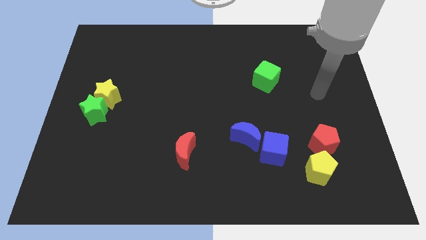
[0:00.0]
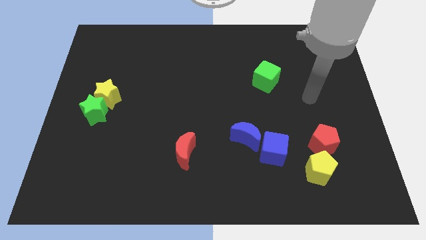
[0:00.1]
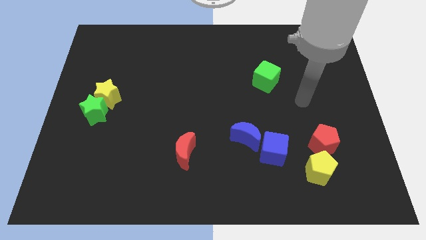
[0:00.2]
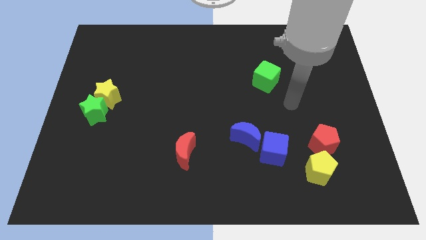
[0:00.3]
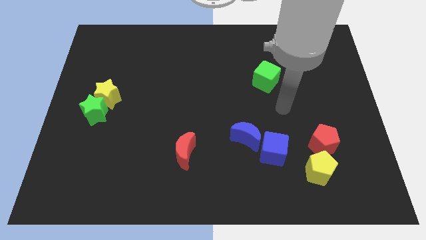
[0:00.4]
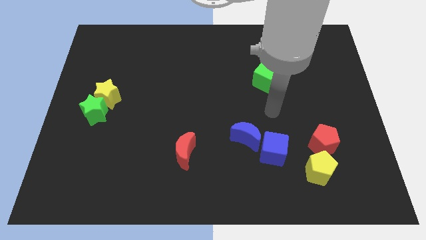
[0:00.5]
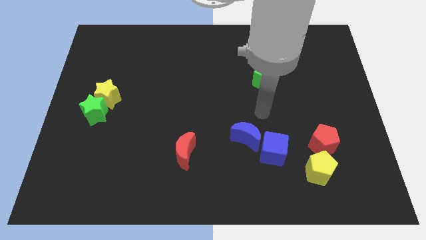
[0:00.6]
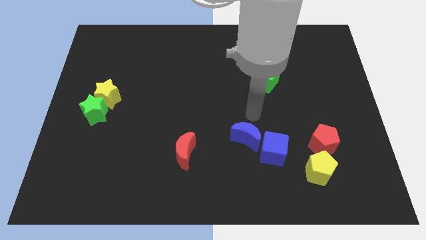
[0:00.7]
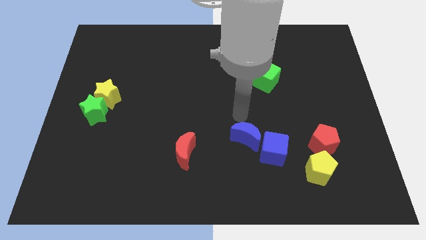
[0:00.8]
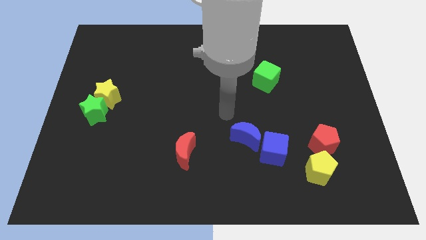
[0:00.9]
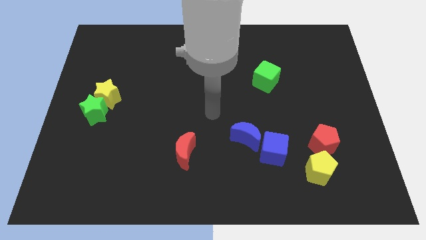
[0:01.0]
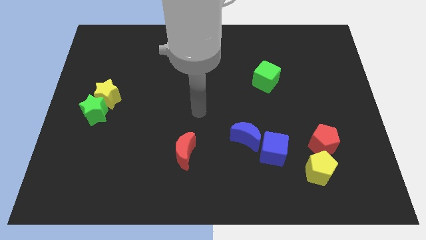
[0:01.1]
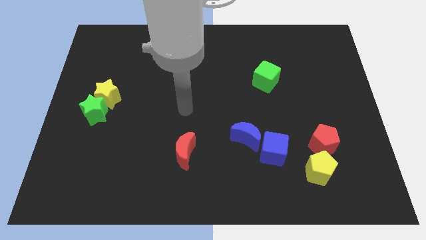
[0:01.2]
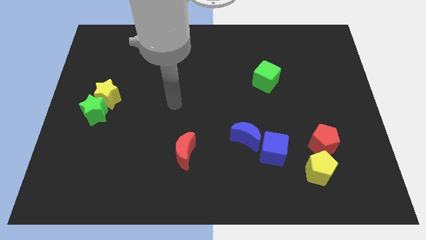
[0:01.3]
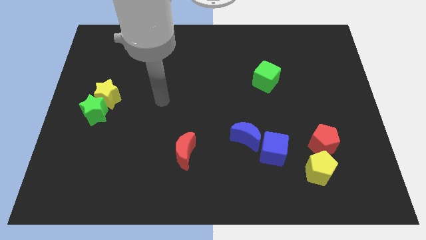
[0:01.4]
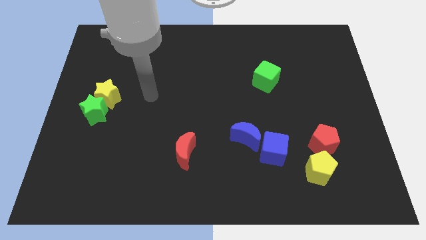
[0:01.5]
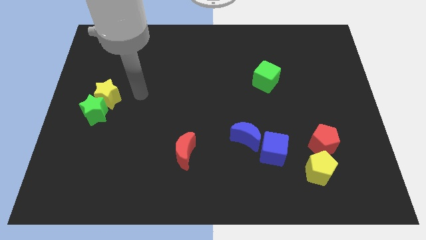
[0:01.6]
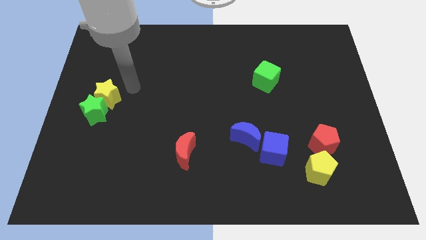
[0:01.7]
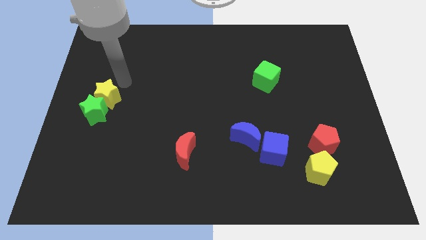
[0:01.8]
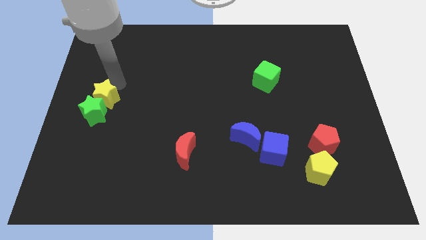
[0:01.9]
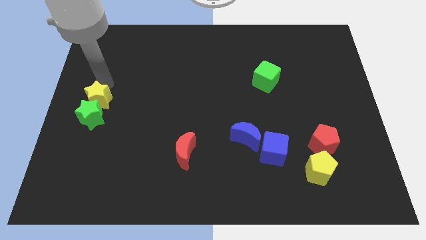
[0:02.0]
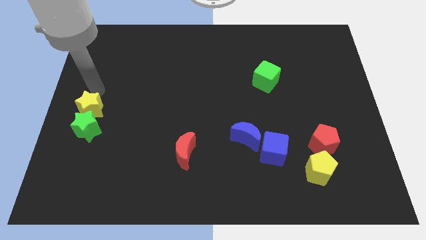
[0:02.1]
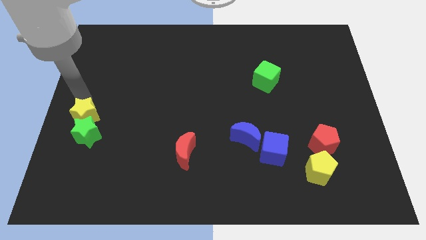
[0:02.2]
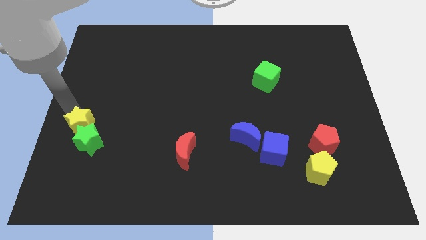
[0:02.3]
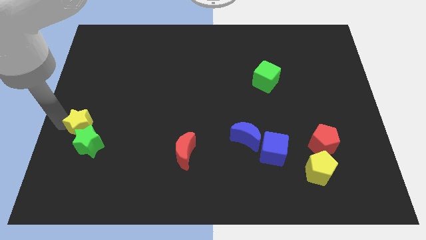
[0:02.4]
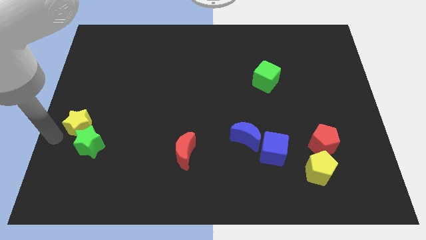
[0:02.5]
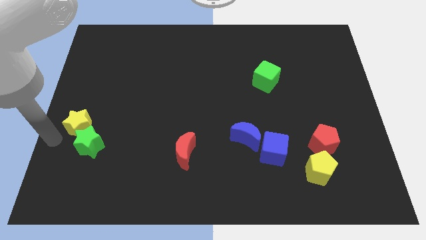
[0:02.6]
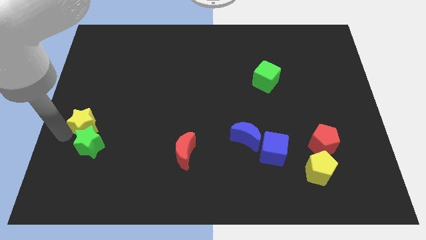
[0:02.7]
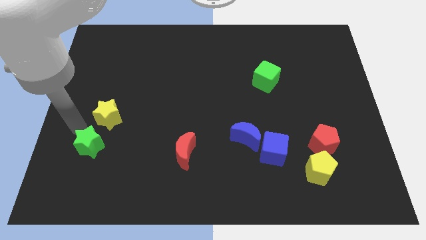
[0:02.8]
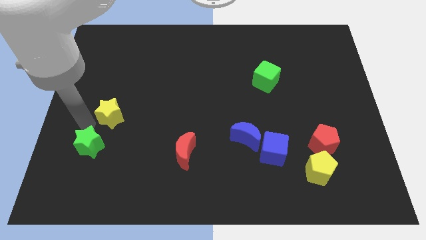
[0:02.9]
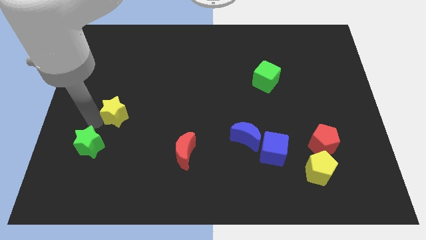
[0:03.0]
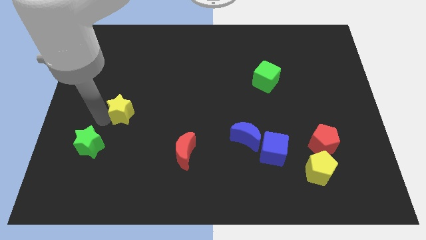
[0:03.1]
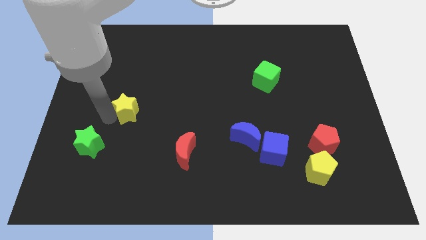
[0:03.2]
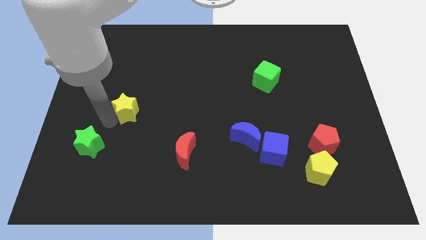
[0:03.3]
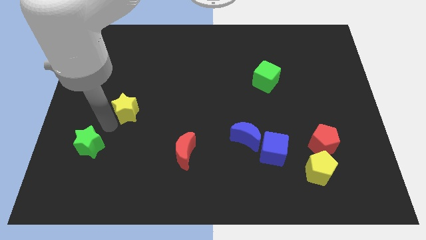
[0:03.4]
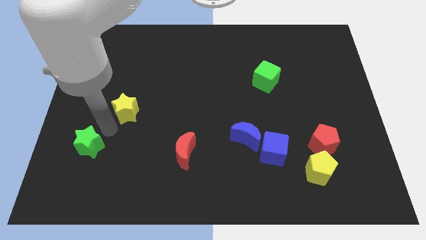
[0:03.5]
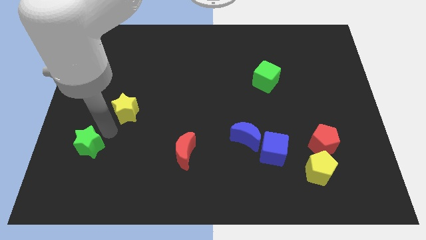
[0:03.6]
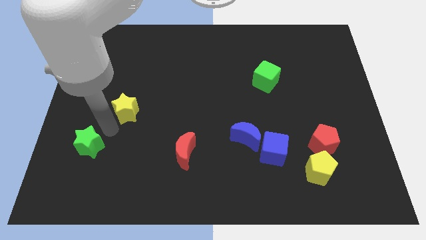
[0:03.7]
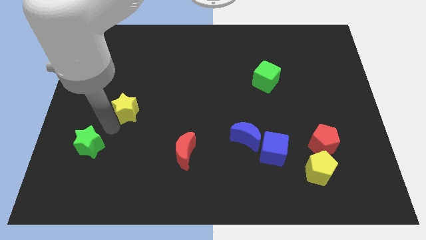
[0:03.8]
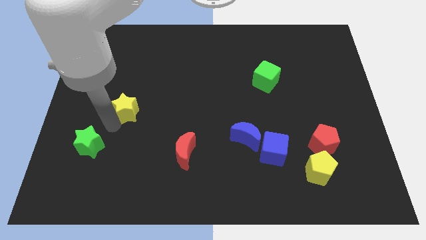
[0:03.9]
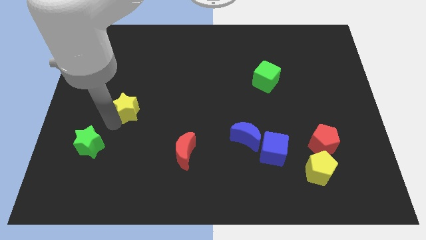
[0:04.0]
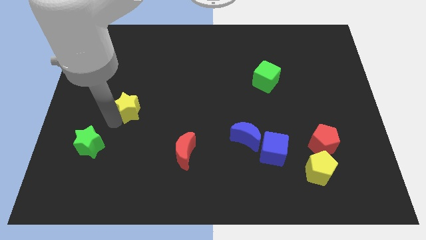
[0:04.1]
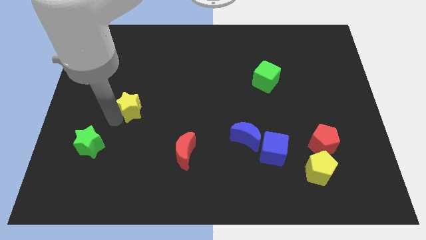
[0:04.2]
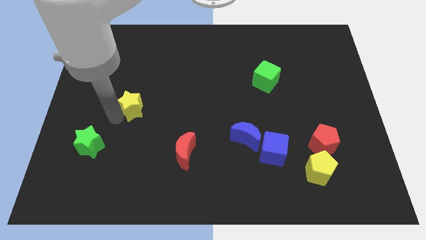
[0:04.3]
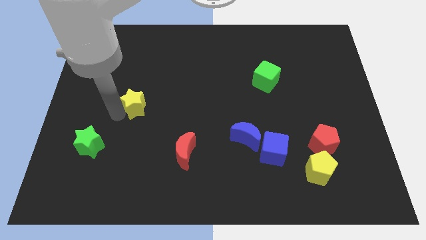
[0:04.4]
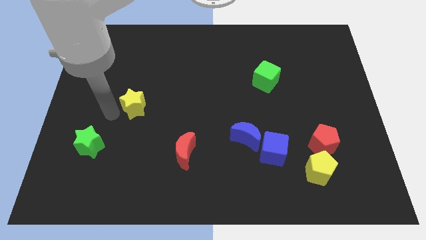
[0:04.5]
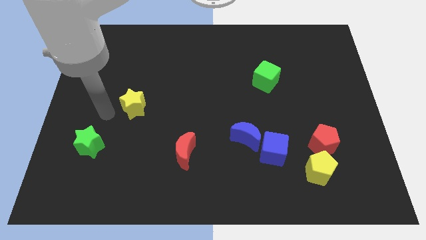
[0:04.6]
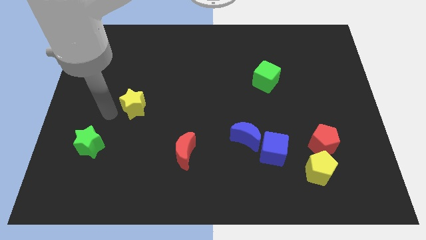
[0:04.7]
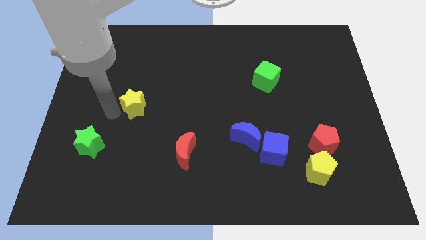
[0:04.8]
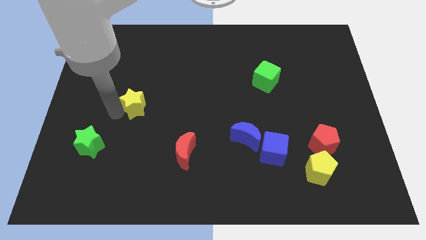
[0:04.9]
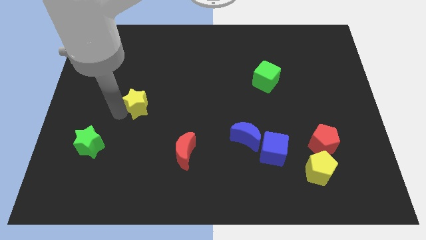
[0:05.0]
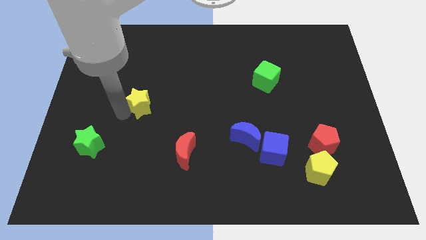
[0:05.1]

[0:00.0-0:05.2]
push the yellow star right slightly

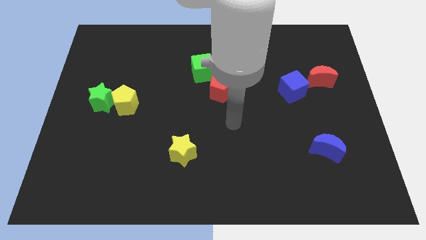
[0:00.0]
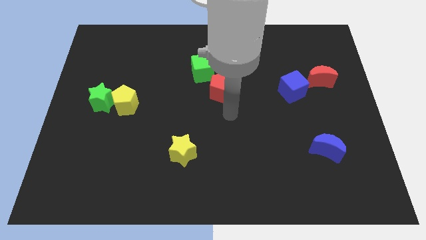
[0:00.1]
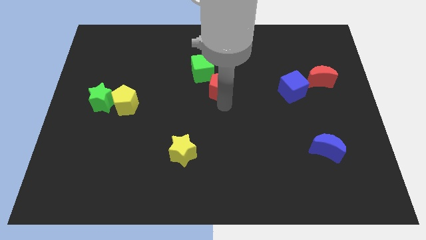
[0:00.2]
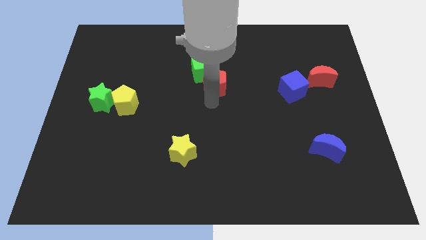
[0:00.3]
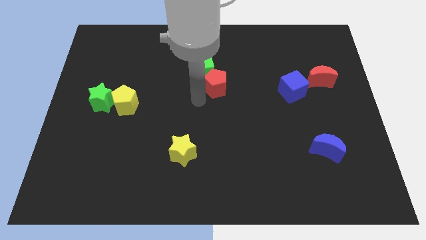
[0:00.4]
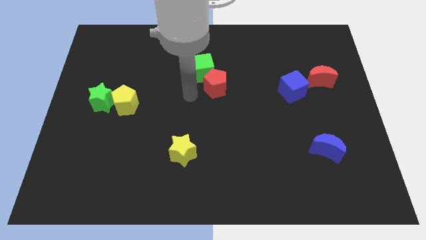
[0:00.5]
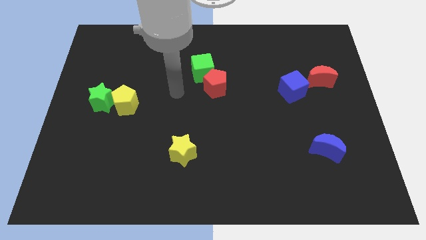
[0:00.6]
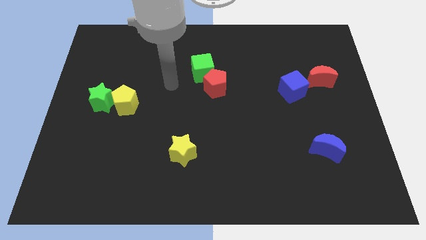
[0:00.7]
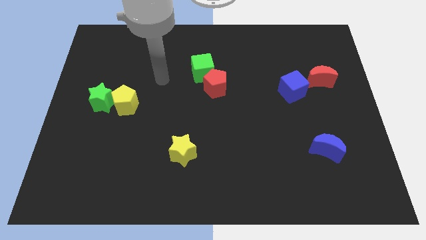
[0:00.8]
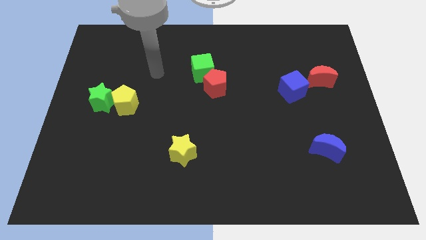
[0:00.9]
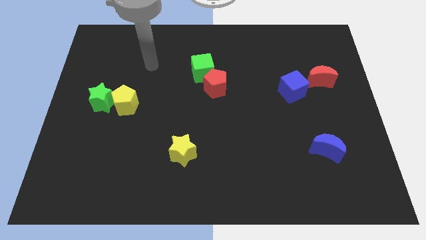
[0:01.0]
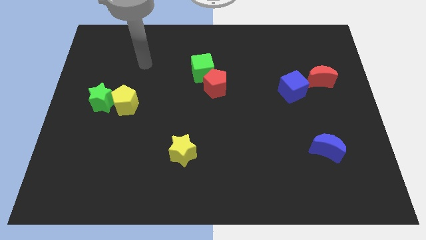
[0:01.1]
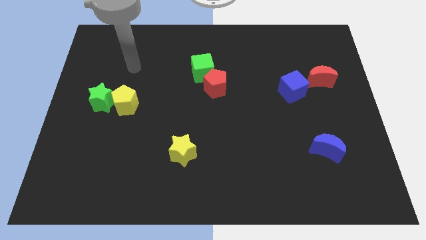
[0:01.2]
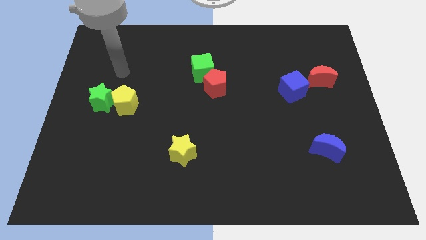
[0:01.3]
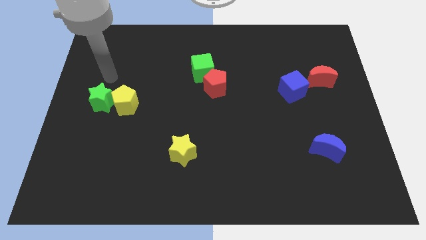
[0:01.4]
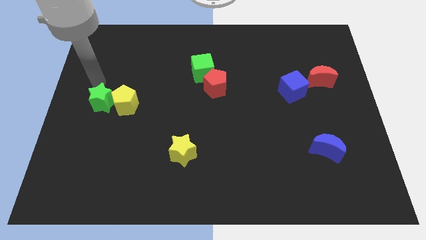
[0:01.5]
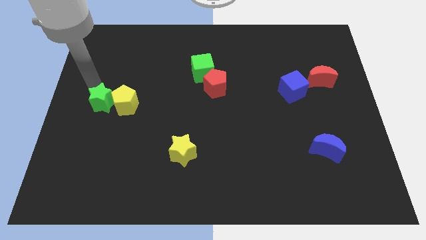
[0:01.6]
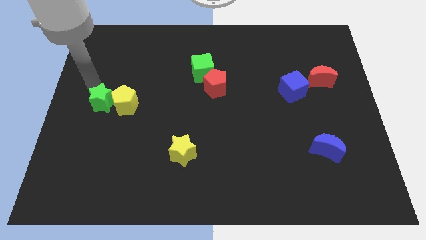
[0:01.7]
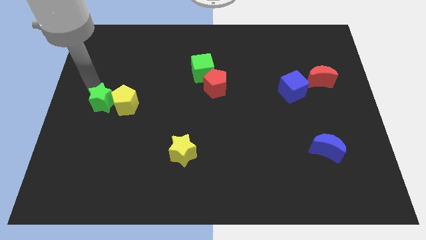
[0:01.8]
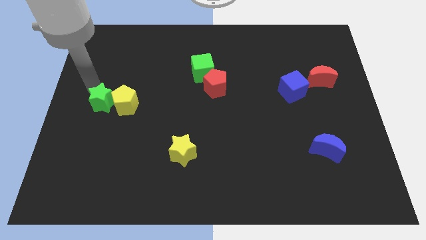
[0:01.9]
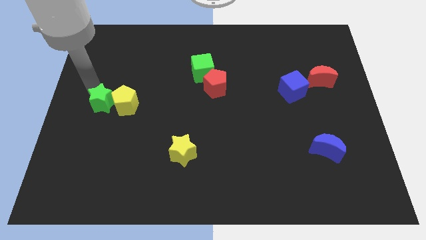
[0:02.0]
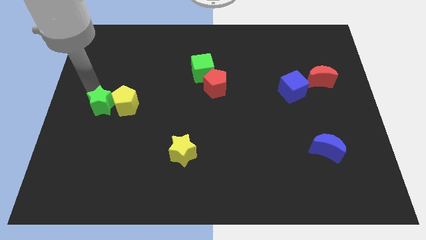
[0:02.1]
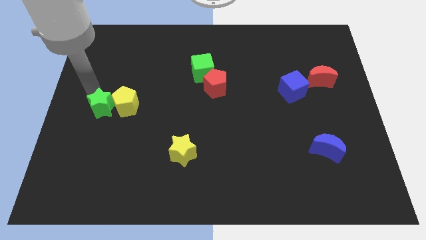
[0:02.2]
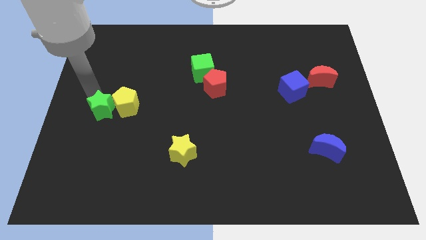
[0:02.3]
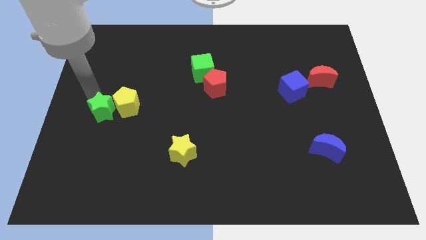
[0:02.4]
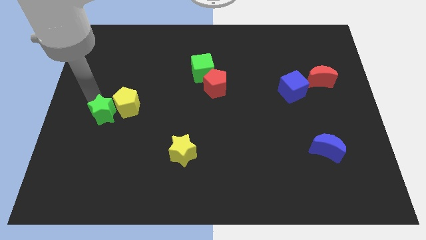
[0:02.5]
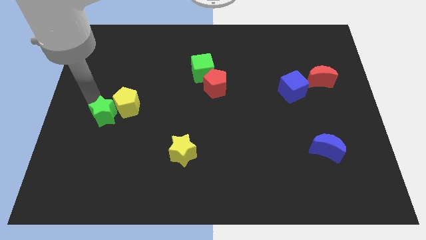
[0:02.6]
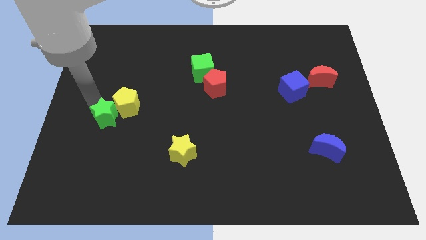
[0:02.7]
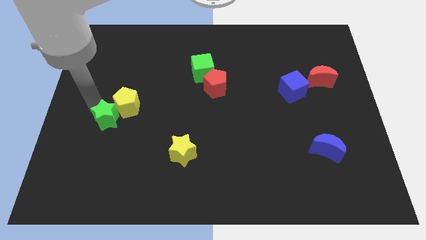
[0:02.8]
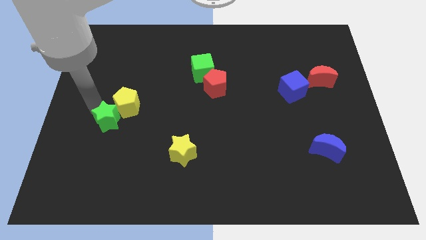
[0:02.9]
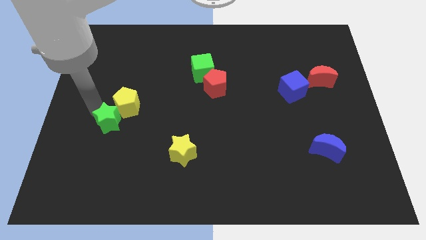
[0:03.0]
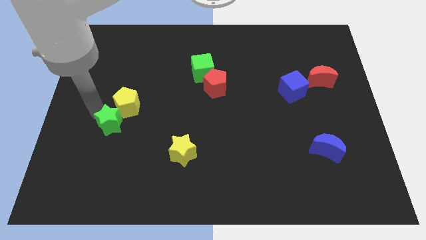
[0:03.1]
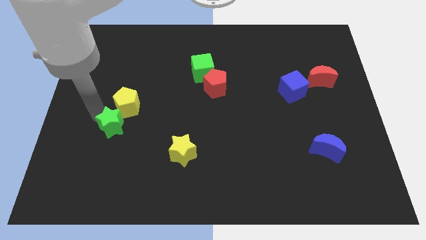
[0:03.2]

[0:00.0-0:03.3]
slightly slide the green star diagonally downwards and right
